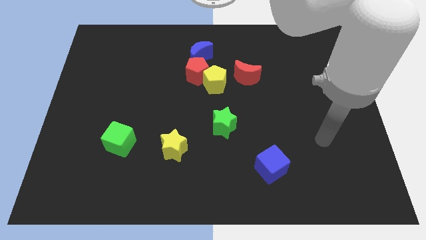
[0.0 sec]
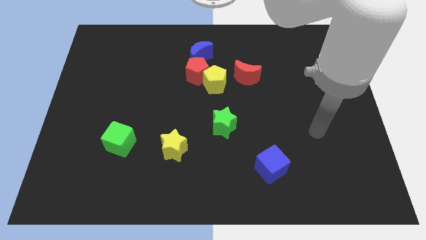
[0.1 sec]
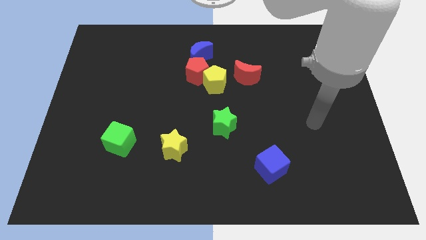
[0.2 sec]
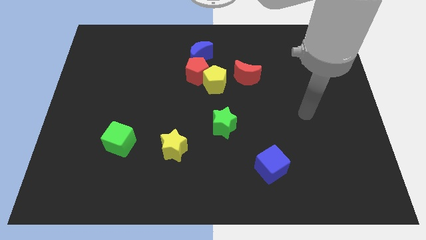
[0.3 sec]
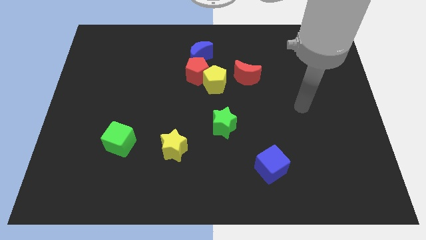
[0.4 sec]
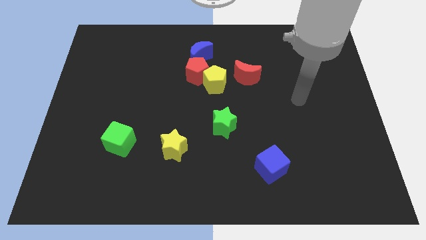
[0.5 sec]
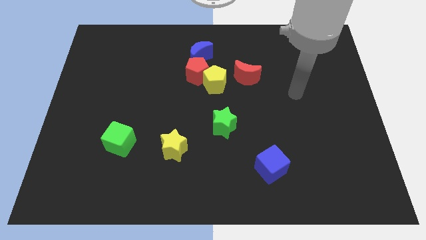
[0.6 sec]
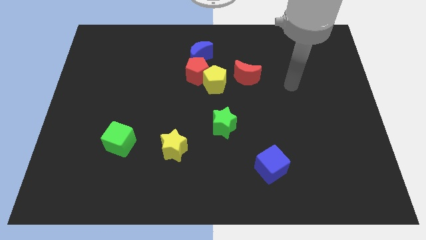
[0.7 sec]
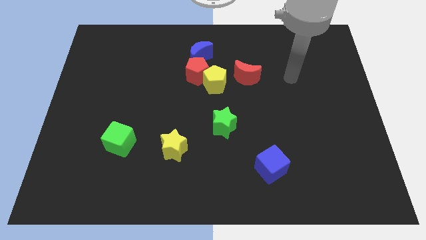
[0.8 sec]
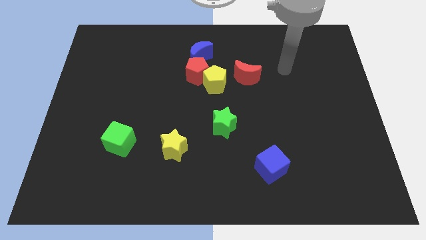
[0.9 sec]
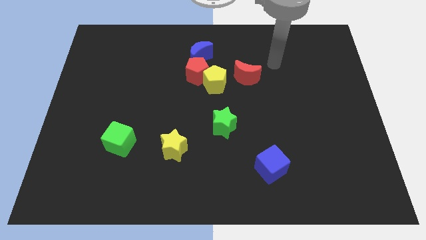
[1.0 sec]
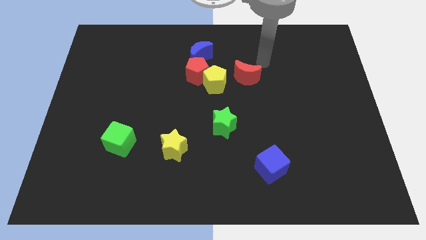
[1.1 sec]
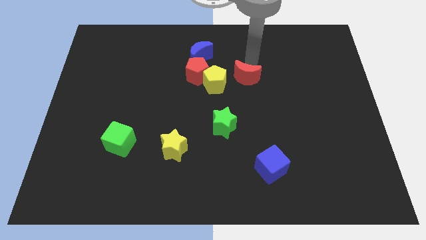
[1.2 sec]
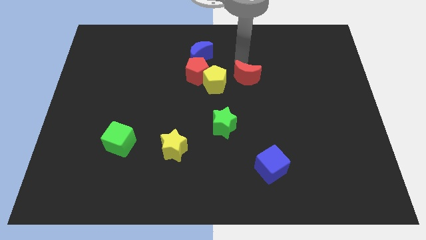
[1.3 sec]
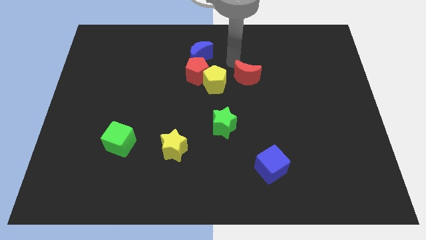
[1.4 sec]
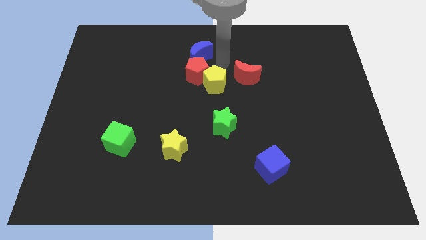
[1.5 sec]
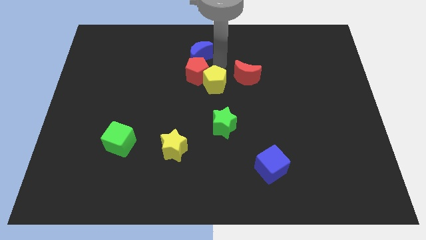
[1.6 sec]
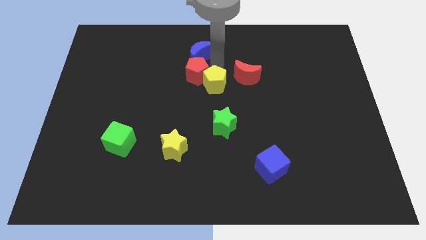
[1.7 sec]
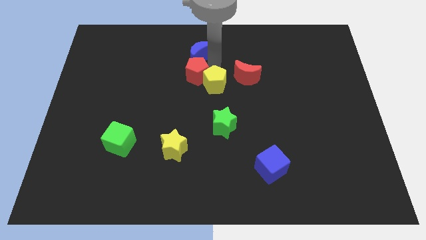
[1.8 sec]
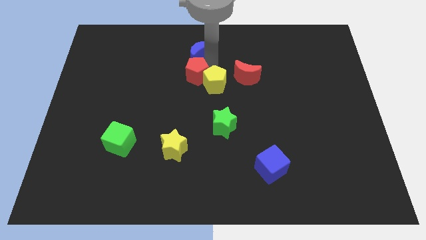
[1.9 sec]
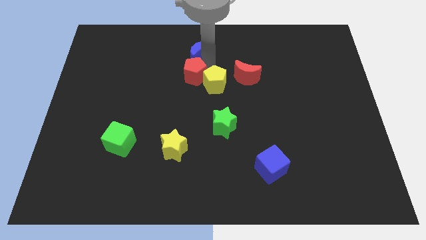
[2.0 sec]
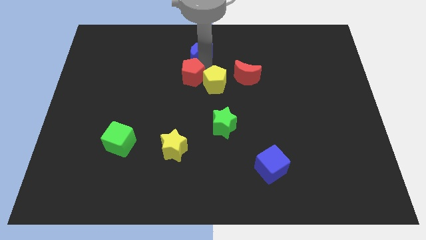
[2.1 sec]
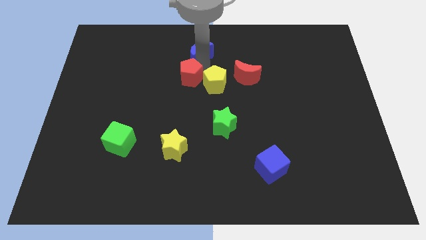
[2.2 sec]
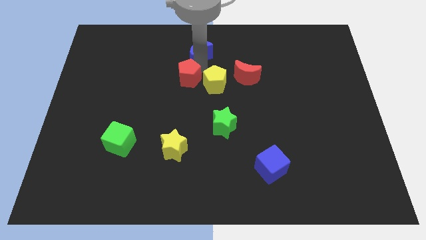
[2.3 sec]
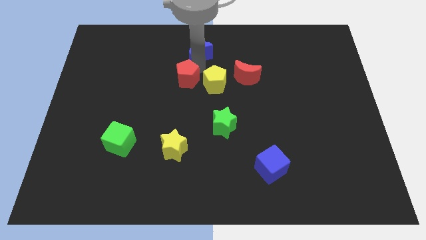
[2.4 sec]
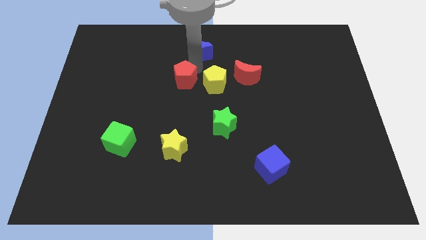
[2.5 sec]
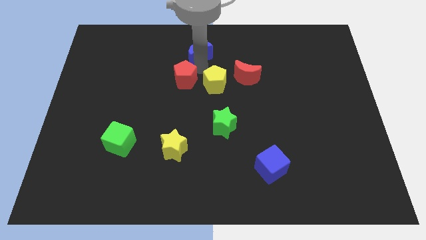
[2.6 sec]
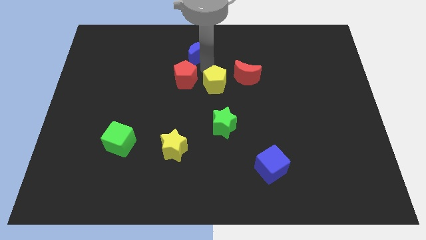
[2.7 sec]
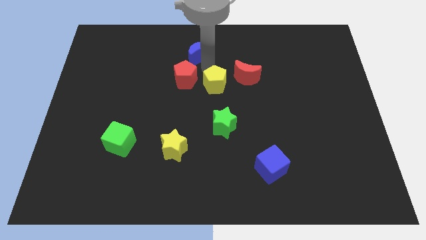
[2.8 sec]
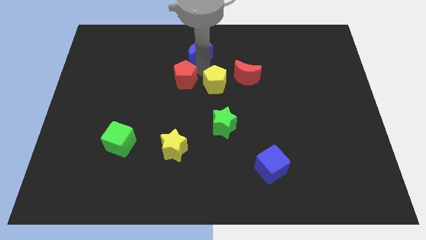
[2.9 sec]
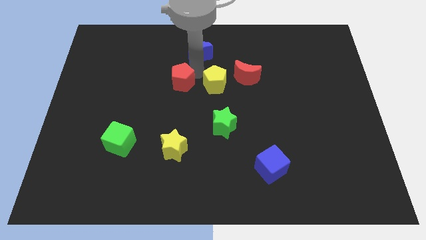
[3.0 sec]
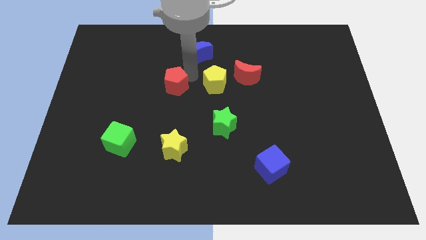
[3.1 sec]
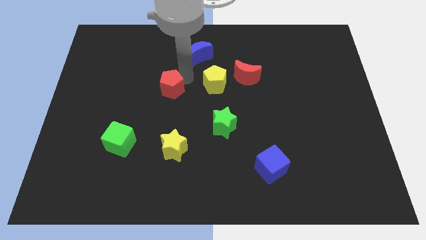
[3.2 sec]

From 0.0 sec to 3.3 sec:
separate the red pentagon from the yellow pentagon and blue moon

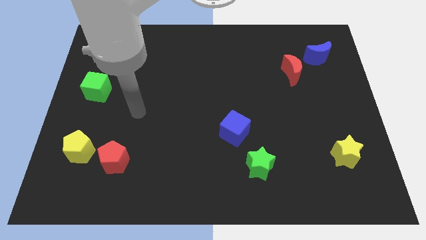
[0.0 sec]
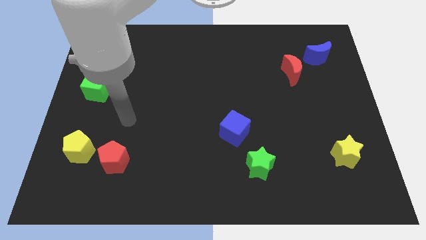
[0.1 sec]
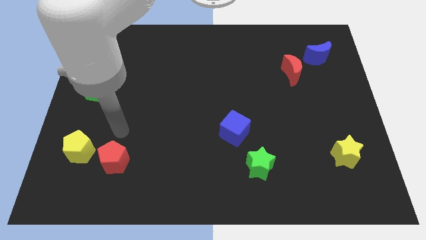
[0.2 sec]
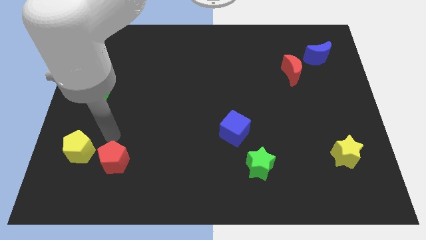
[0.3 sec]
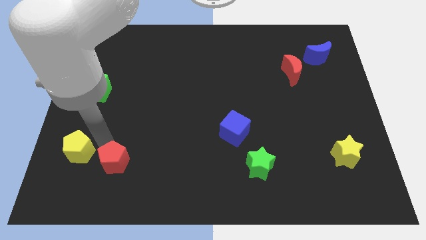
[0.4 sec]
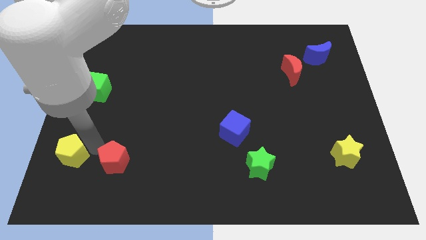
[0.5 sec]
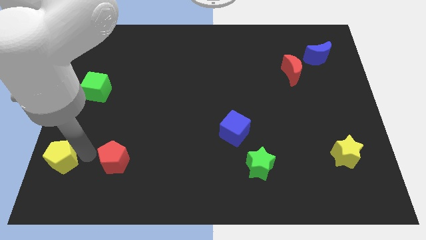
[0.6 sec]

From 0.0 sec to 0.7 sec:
separate the red pentagon from the yellow pentagon

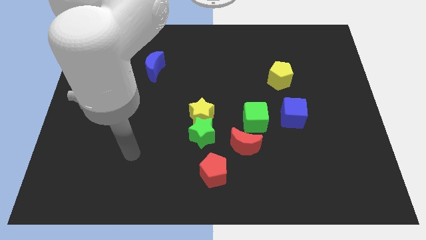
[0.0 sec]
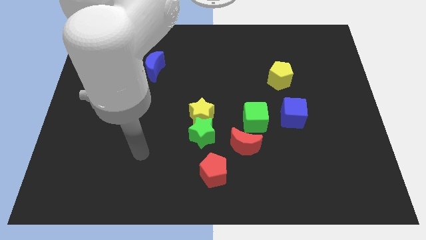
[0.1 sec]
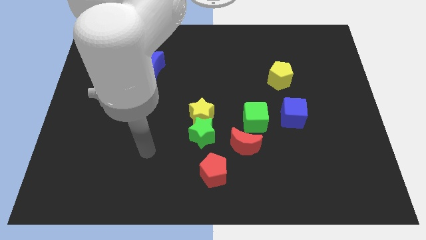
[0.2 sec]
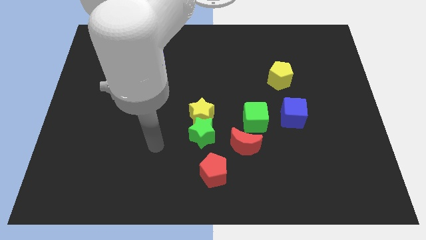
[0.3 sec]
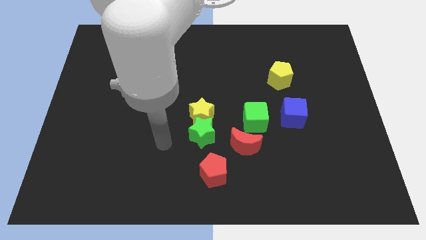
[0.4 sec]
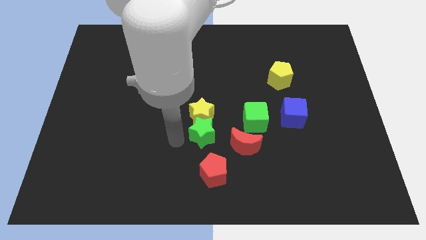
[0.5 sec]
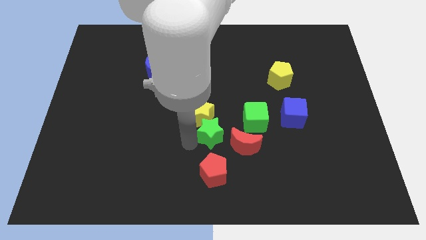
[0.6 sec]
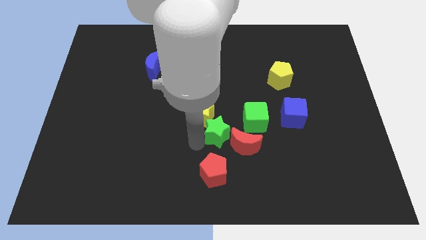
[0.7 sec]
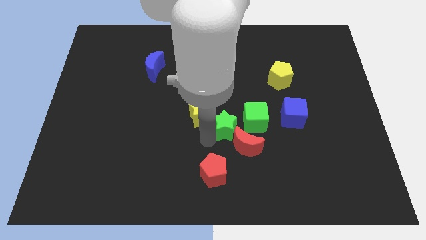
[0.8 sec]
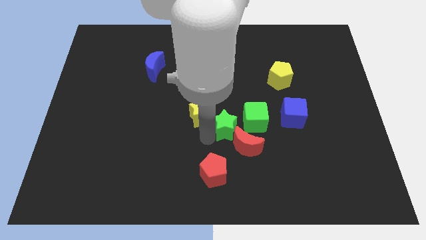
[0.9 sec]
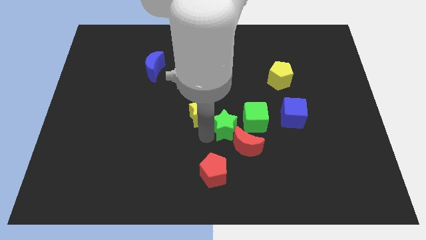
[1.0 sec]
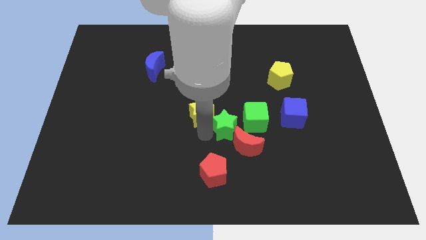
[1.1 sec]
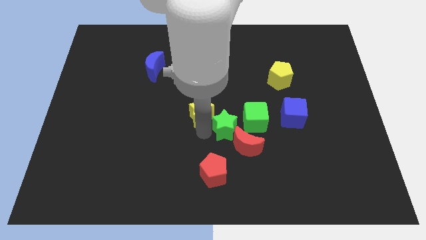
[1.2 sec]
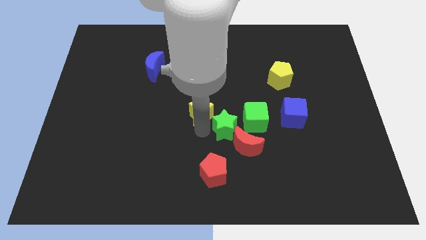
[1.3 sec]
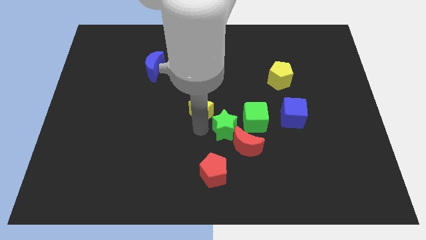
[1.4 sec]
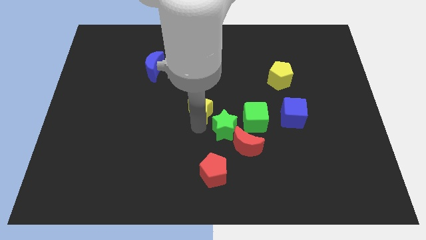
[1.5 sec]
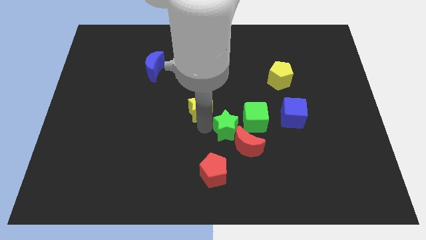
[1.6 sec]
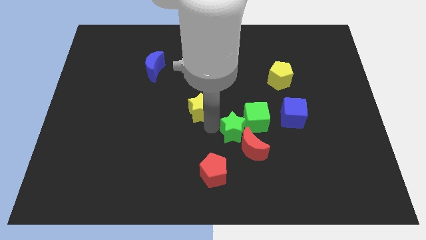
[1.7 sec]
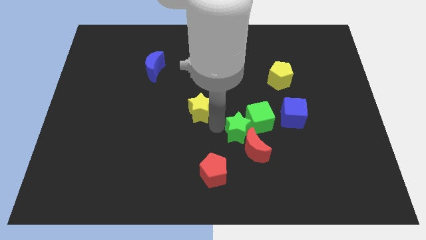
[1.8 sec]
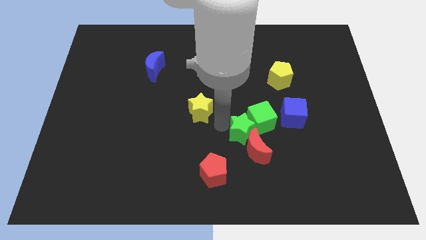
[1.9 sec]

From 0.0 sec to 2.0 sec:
separate the yellow star from the green star

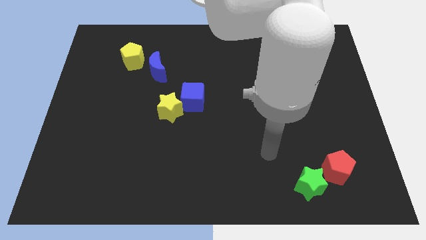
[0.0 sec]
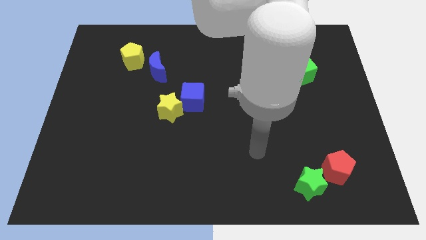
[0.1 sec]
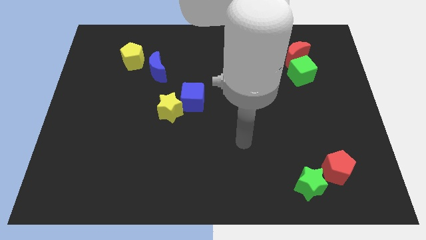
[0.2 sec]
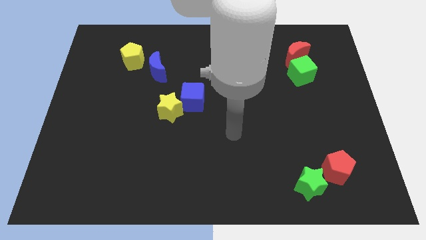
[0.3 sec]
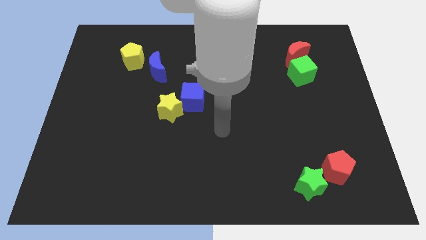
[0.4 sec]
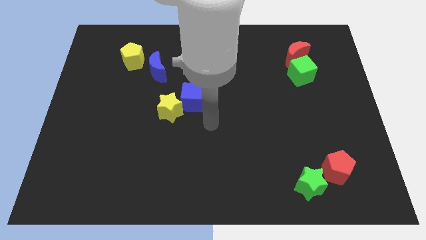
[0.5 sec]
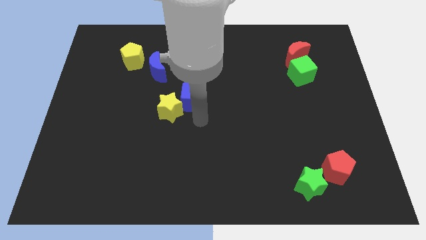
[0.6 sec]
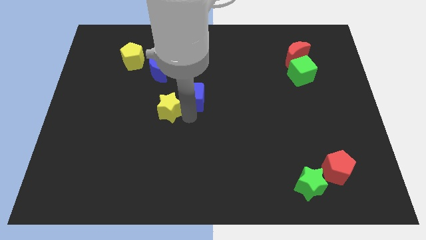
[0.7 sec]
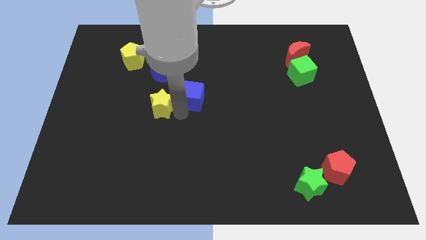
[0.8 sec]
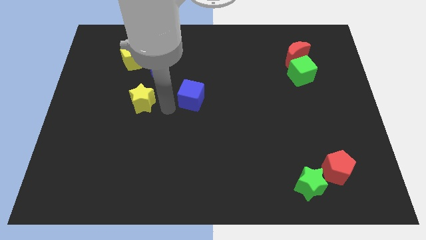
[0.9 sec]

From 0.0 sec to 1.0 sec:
separate the blue cube from the yellow star

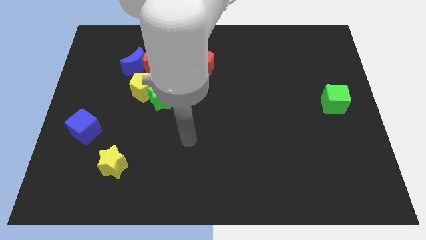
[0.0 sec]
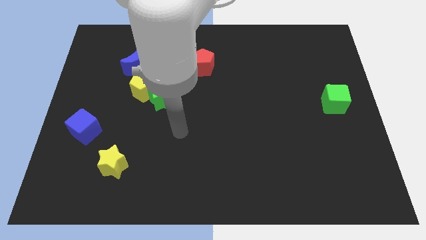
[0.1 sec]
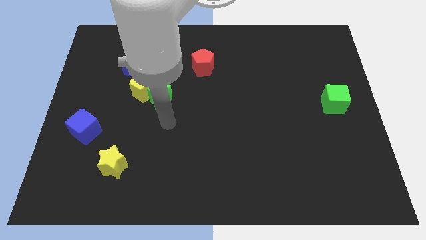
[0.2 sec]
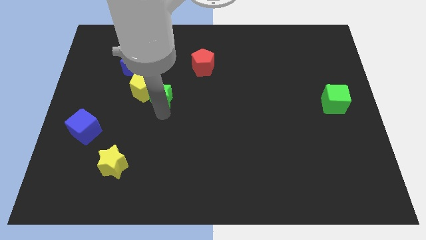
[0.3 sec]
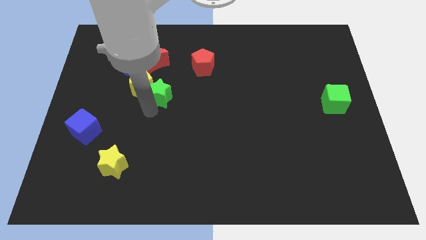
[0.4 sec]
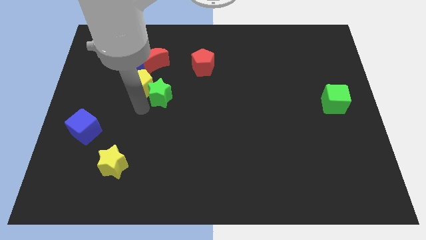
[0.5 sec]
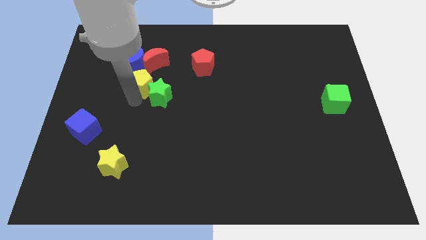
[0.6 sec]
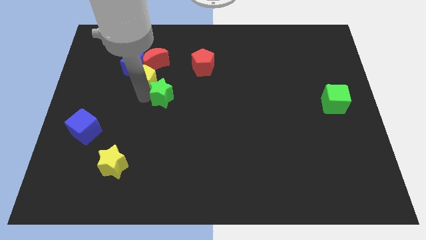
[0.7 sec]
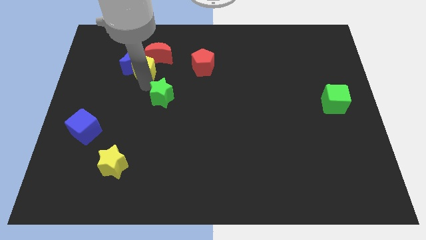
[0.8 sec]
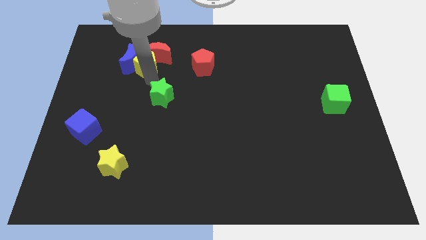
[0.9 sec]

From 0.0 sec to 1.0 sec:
move the green star away from the yellow pentagon

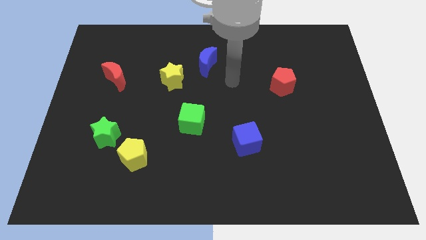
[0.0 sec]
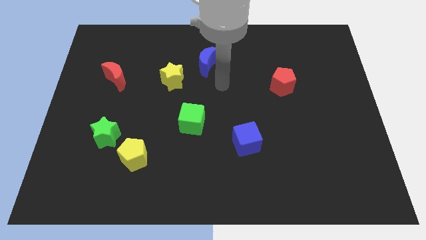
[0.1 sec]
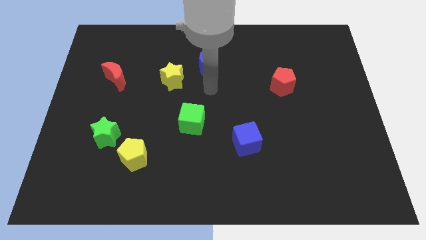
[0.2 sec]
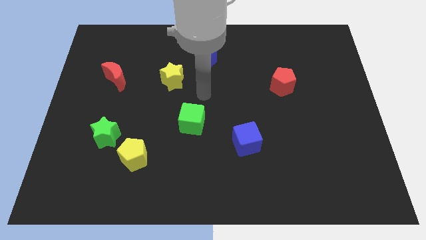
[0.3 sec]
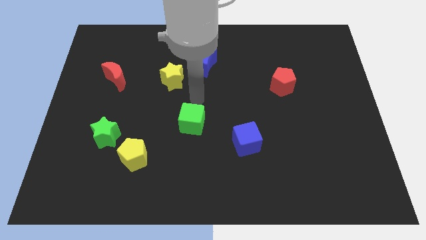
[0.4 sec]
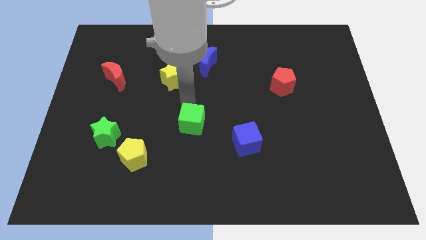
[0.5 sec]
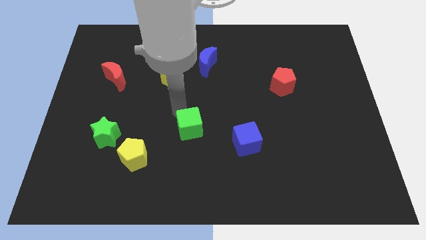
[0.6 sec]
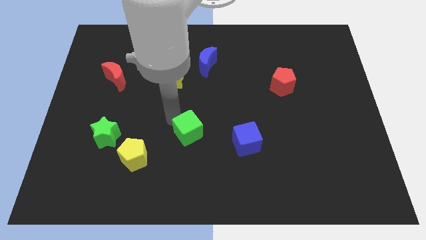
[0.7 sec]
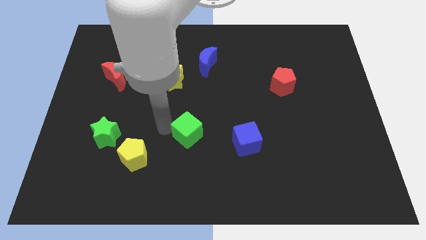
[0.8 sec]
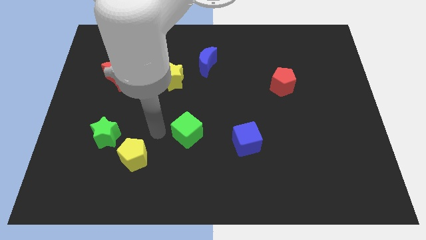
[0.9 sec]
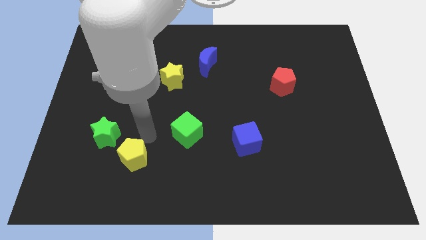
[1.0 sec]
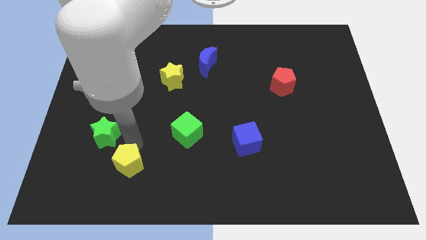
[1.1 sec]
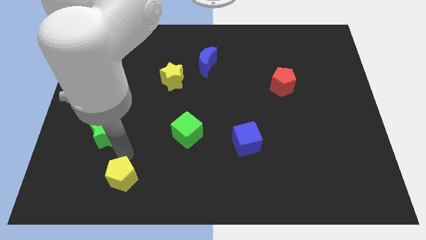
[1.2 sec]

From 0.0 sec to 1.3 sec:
pull the green star apart from the yellow pentagon
